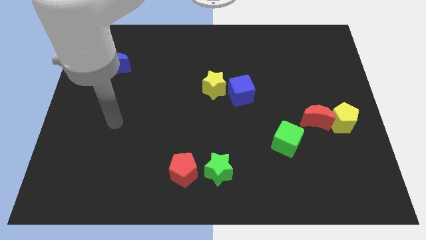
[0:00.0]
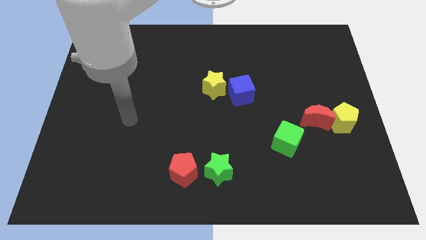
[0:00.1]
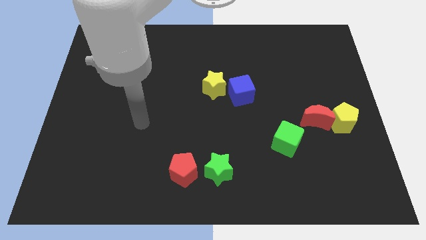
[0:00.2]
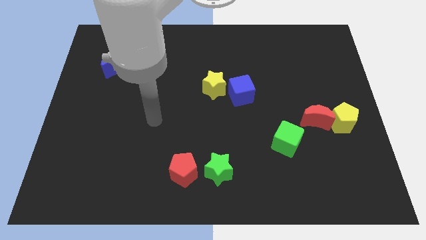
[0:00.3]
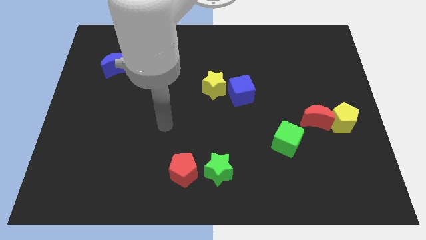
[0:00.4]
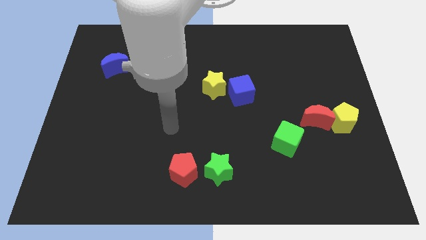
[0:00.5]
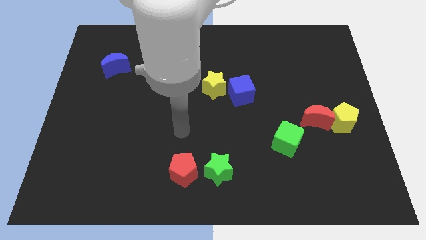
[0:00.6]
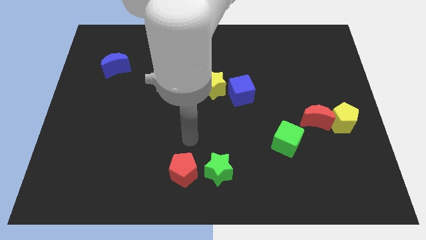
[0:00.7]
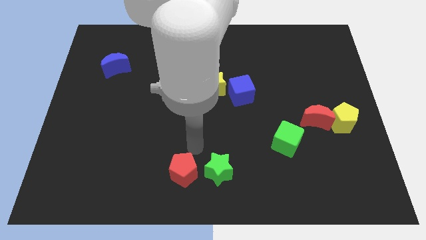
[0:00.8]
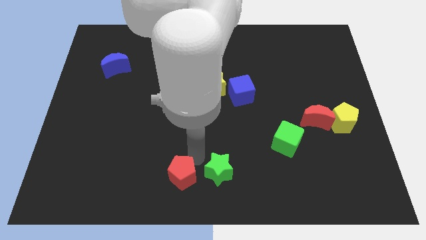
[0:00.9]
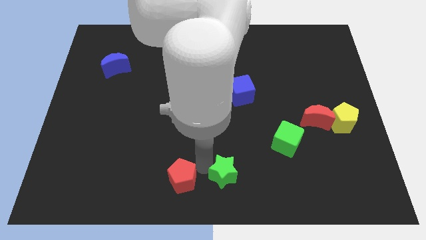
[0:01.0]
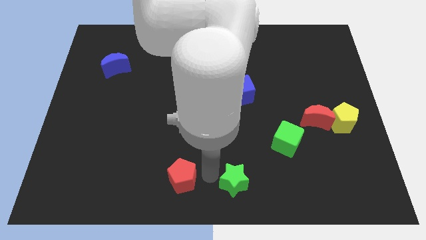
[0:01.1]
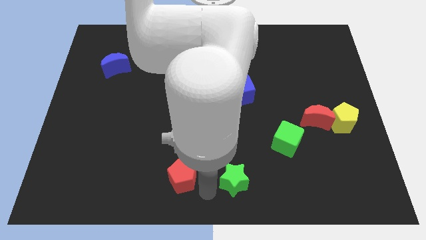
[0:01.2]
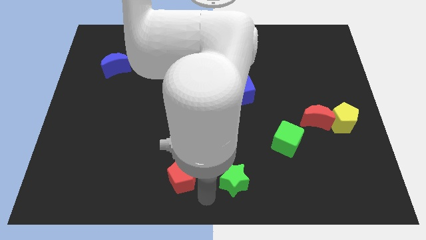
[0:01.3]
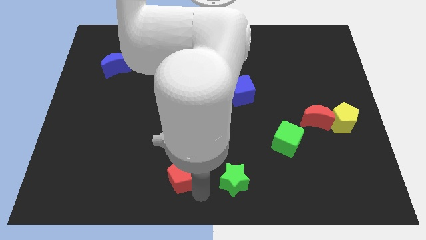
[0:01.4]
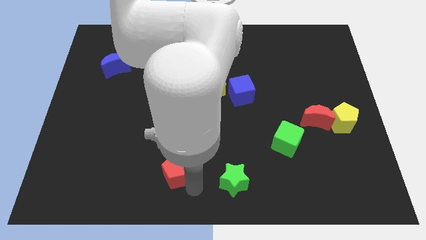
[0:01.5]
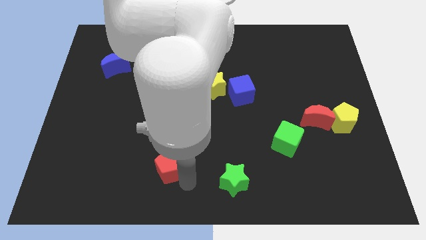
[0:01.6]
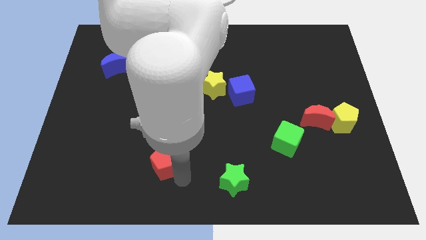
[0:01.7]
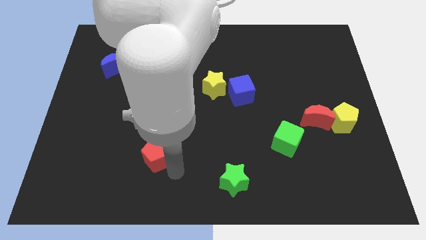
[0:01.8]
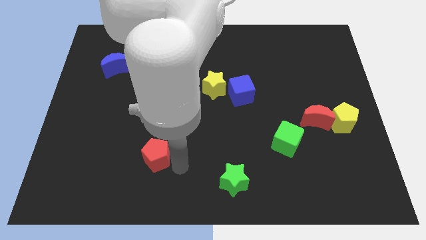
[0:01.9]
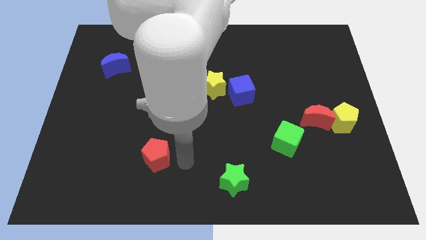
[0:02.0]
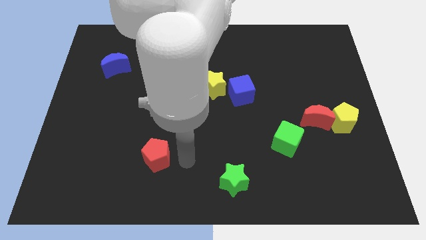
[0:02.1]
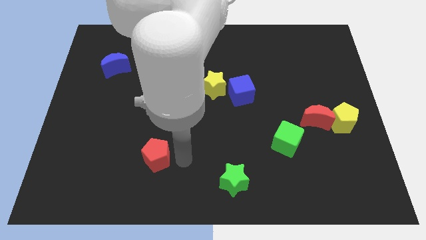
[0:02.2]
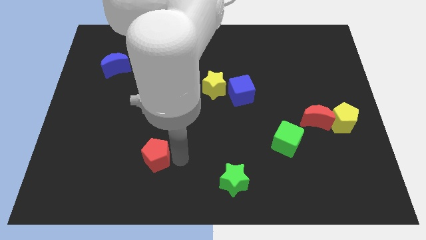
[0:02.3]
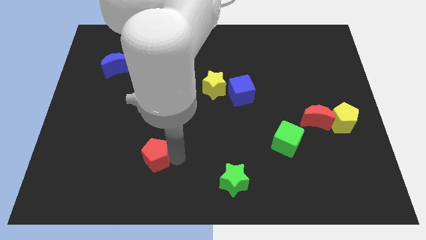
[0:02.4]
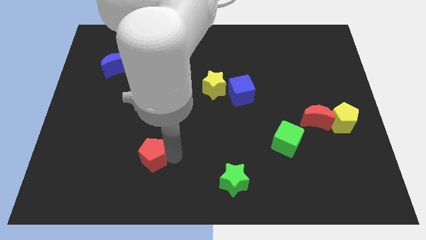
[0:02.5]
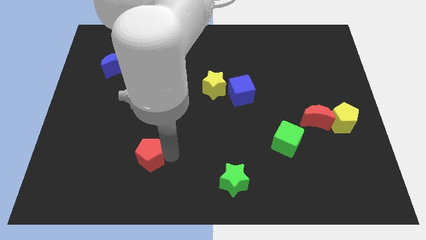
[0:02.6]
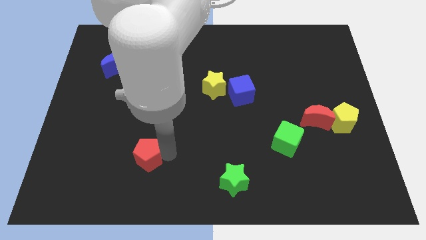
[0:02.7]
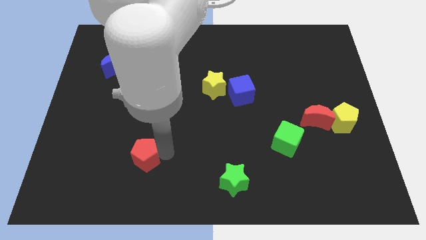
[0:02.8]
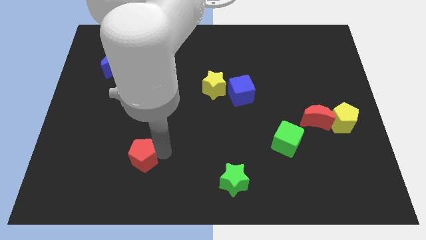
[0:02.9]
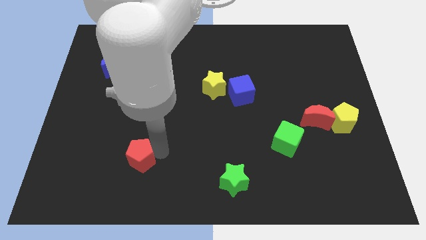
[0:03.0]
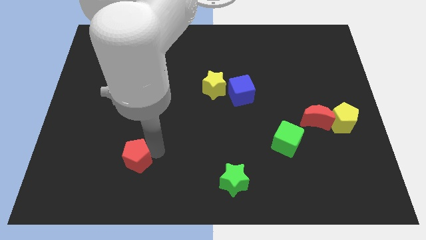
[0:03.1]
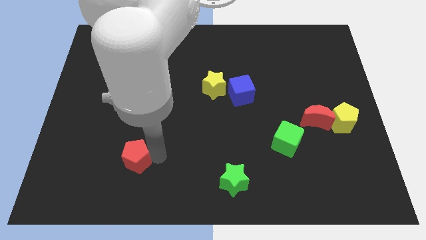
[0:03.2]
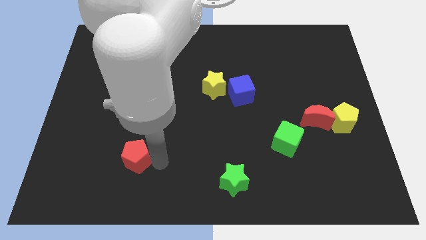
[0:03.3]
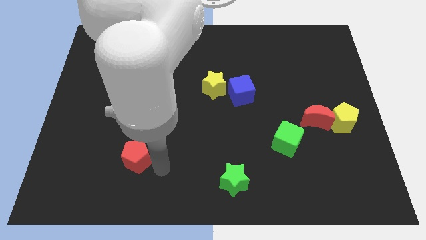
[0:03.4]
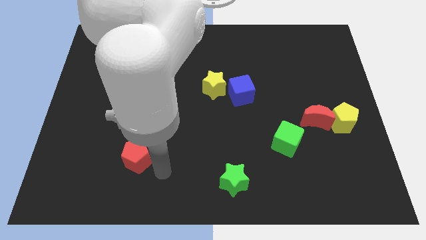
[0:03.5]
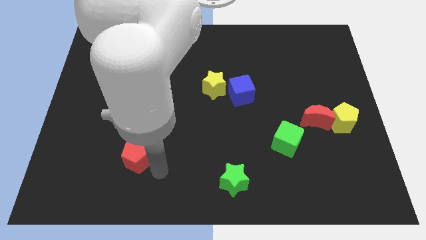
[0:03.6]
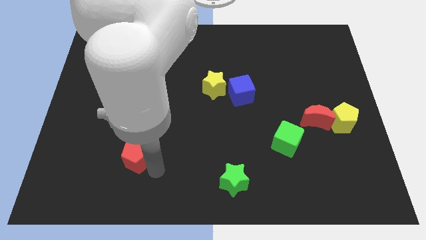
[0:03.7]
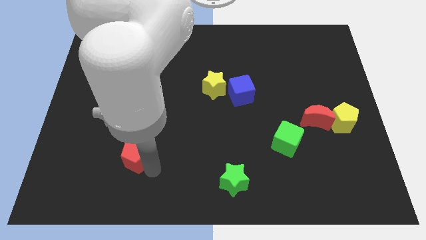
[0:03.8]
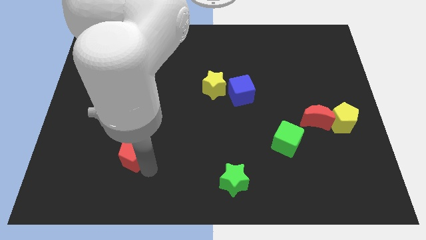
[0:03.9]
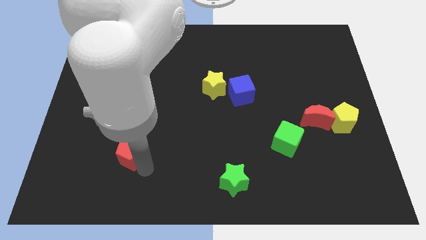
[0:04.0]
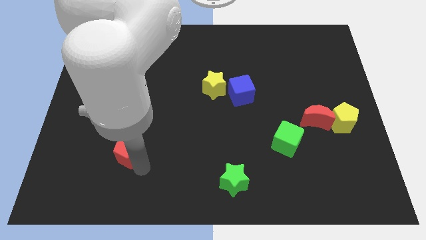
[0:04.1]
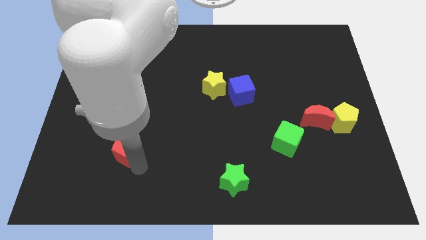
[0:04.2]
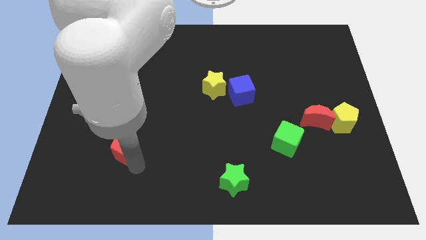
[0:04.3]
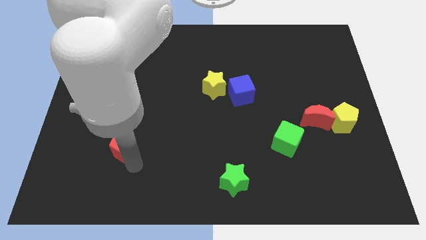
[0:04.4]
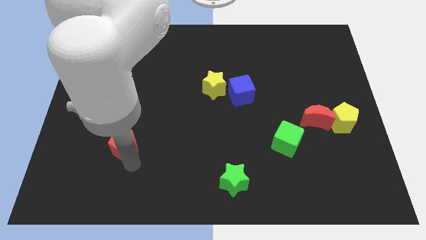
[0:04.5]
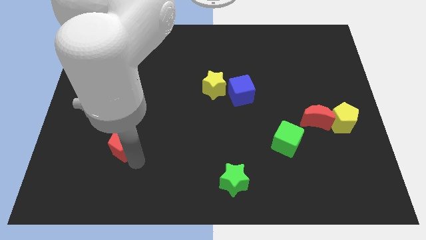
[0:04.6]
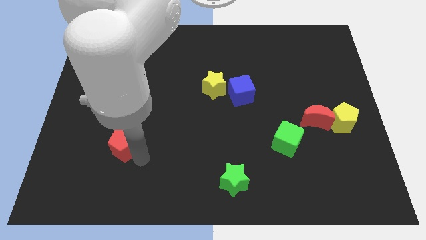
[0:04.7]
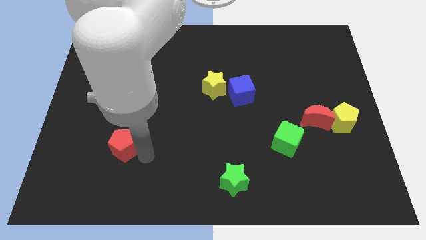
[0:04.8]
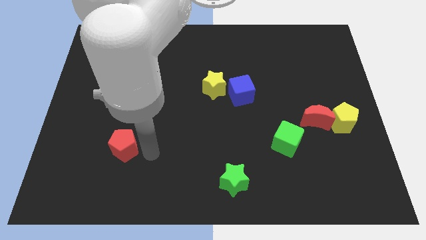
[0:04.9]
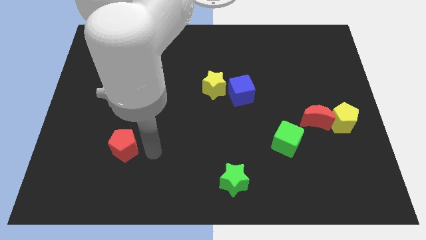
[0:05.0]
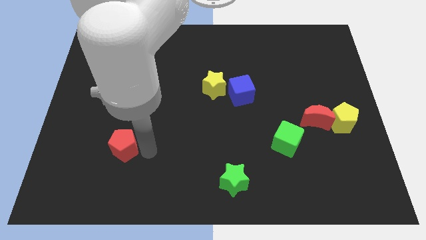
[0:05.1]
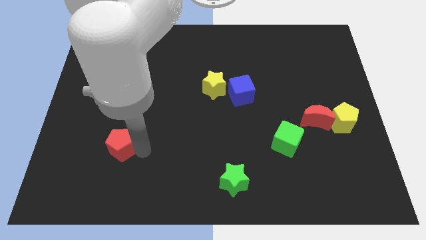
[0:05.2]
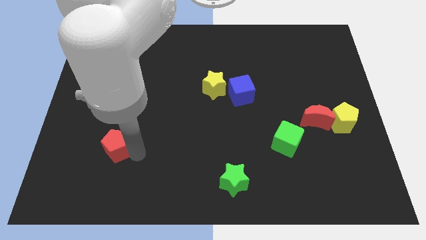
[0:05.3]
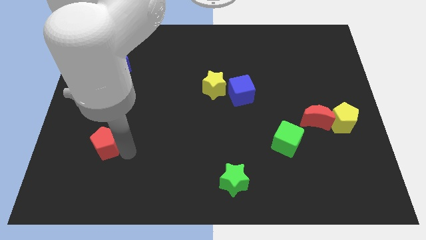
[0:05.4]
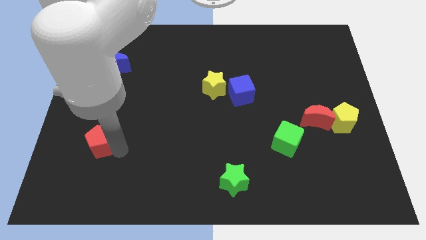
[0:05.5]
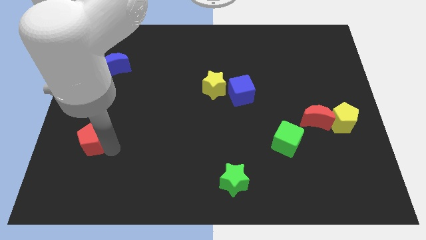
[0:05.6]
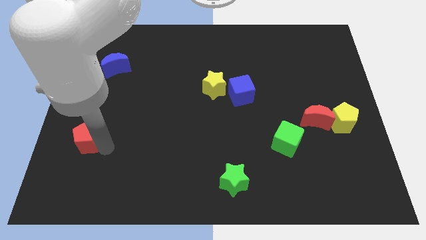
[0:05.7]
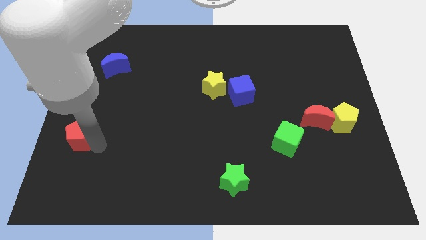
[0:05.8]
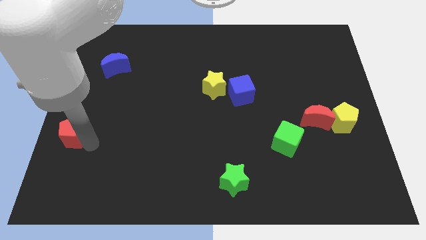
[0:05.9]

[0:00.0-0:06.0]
slide the red pentagon to the left side
